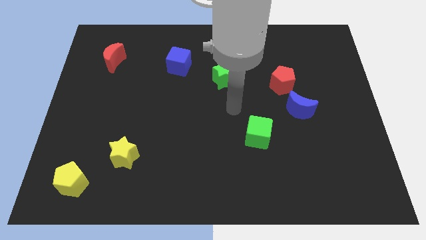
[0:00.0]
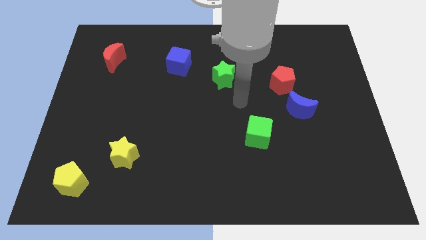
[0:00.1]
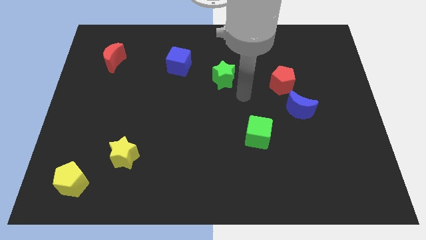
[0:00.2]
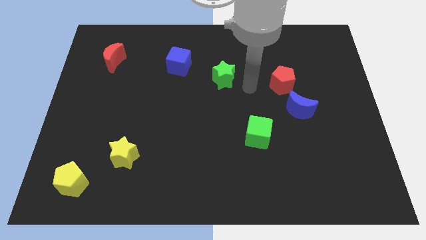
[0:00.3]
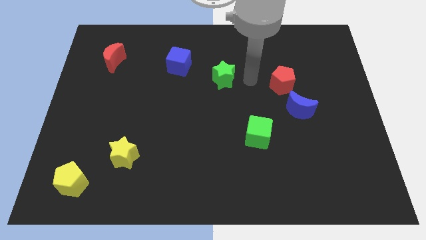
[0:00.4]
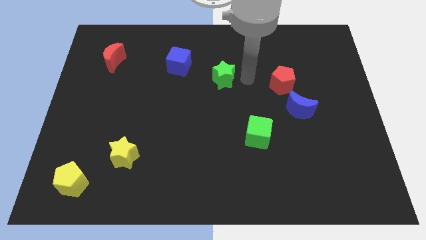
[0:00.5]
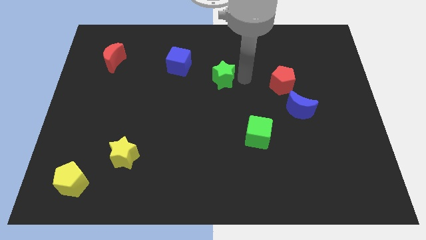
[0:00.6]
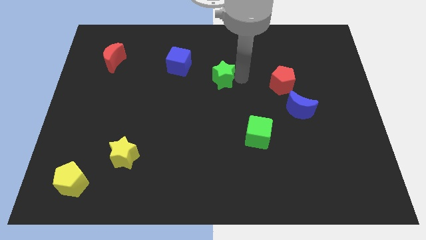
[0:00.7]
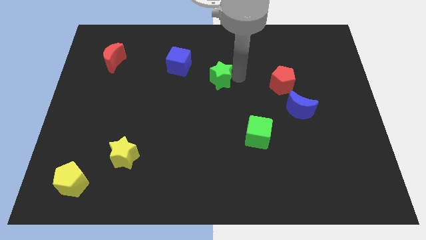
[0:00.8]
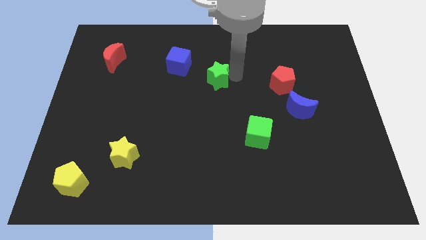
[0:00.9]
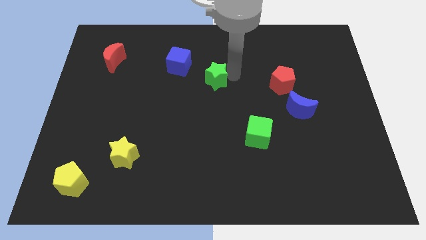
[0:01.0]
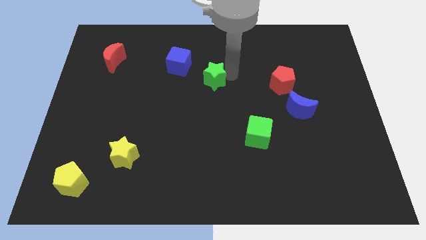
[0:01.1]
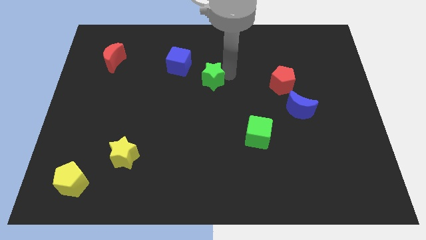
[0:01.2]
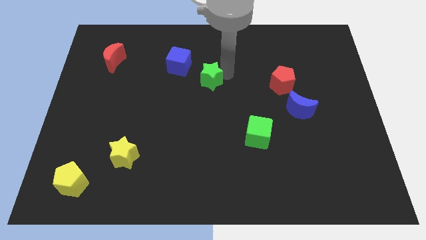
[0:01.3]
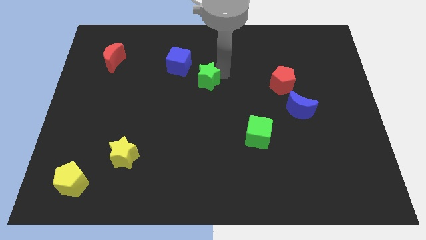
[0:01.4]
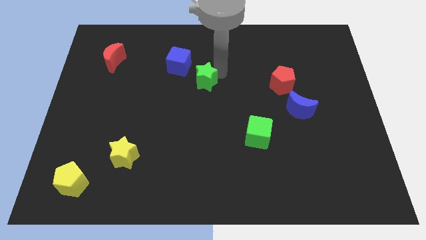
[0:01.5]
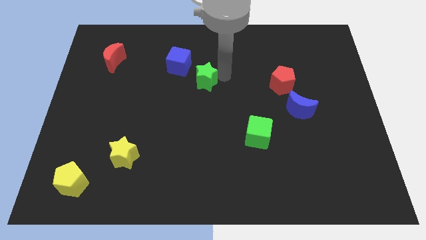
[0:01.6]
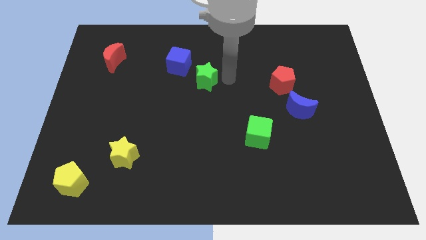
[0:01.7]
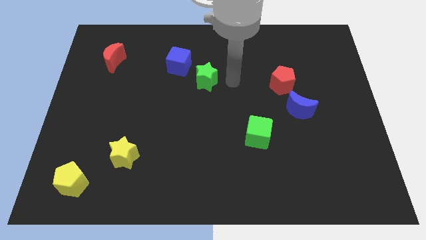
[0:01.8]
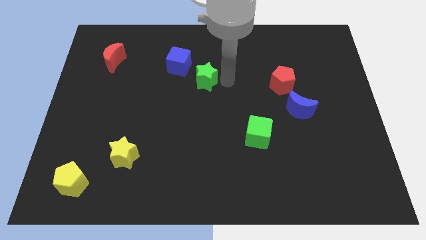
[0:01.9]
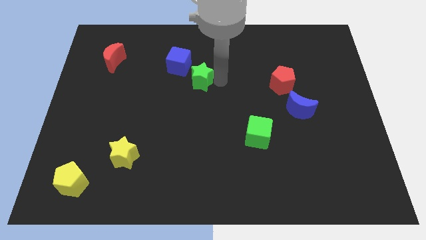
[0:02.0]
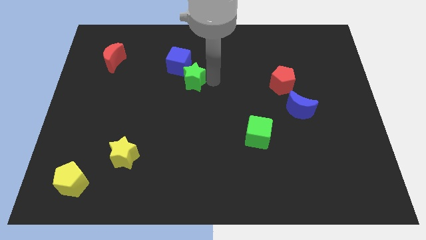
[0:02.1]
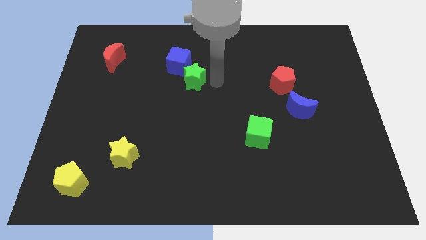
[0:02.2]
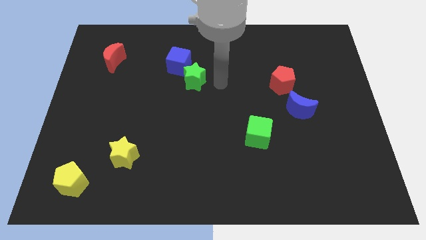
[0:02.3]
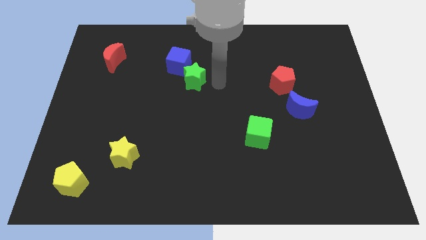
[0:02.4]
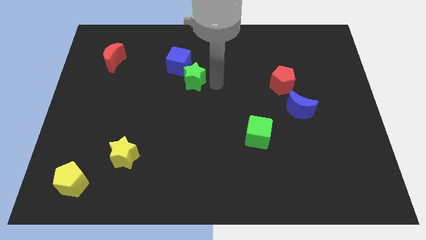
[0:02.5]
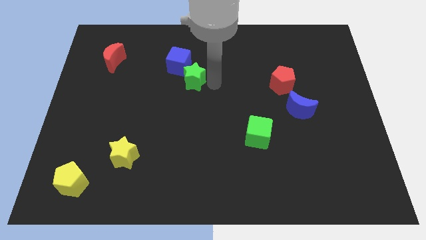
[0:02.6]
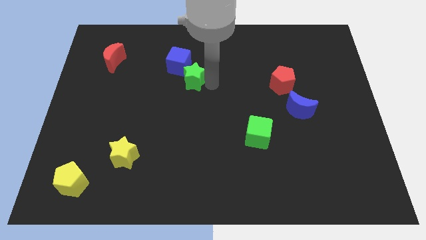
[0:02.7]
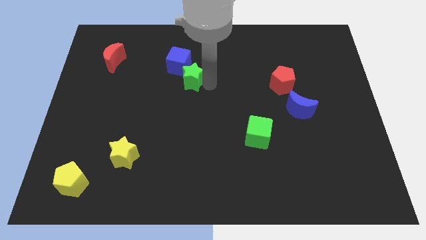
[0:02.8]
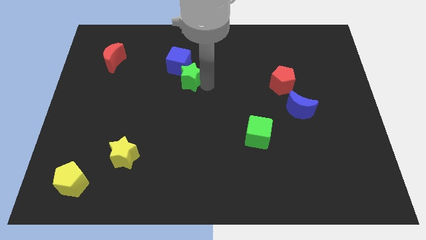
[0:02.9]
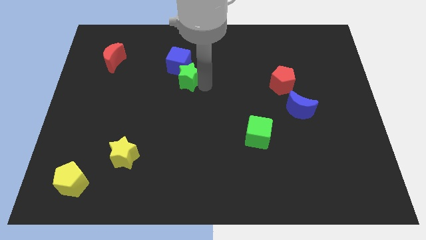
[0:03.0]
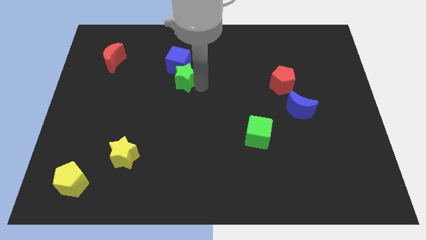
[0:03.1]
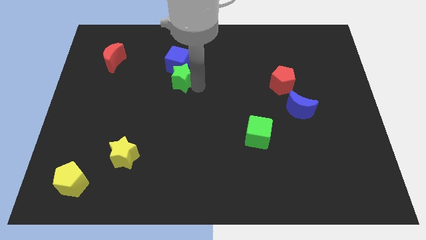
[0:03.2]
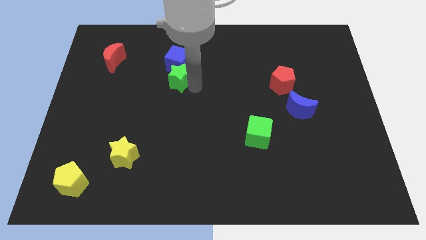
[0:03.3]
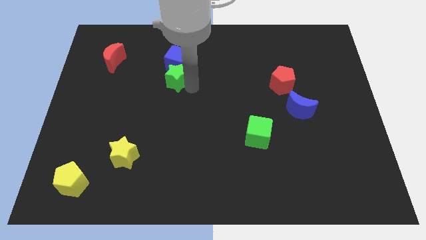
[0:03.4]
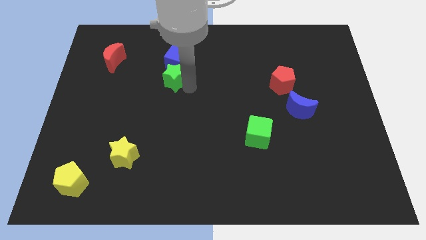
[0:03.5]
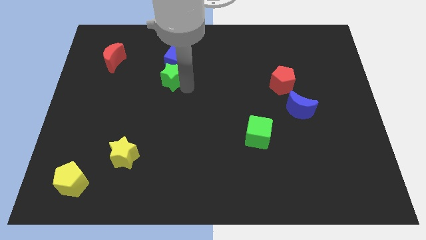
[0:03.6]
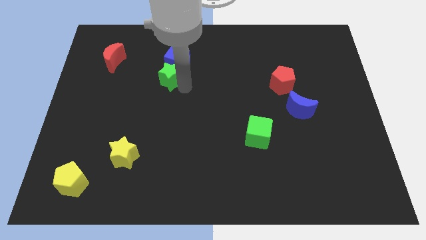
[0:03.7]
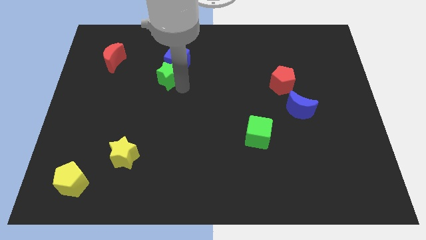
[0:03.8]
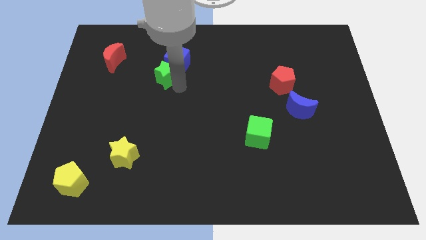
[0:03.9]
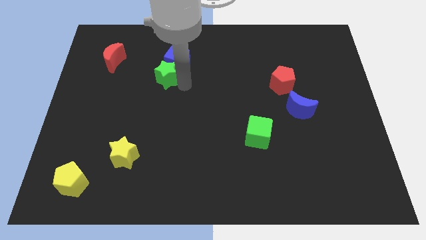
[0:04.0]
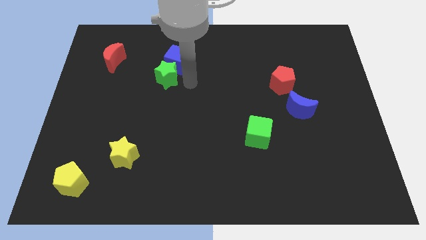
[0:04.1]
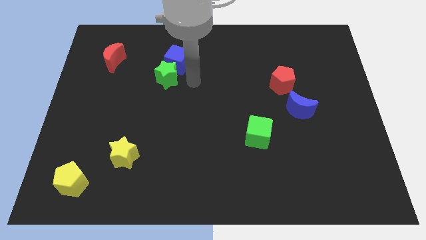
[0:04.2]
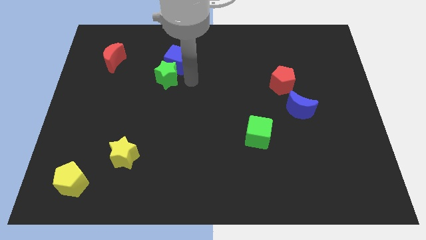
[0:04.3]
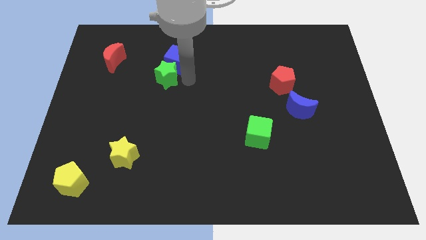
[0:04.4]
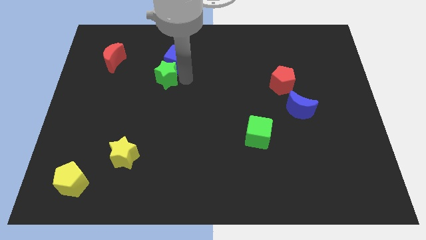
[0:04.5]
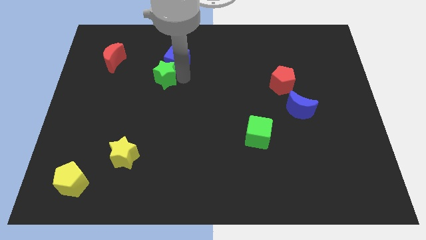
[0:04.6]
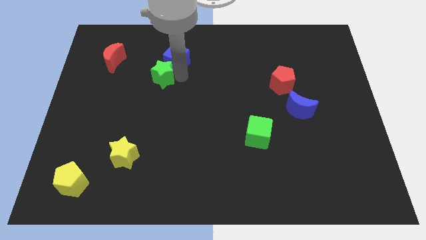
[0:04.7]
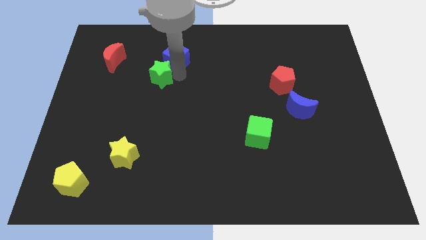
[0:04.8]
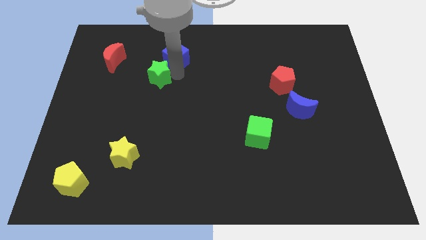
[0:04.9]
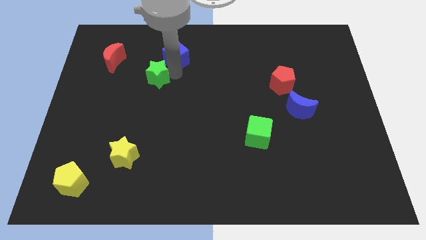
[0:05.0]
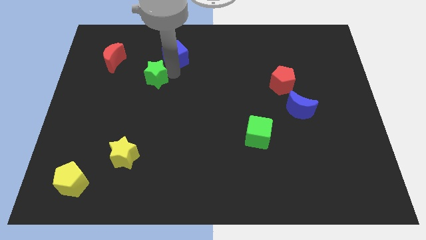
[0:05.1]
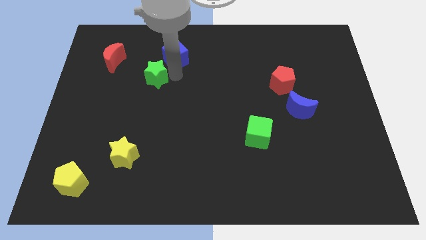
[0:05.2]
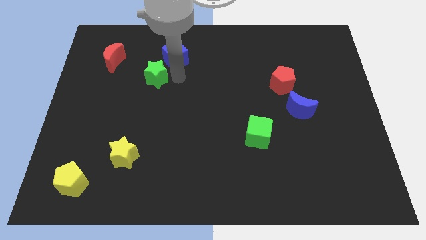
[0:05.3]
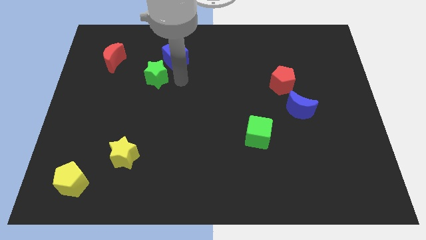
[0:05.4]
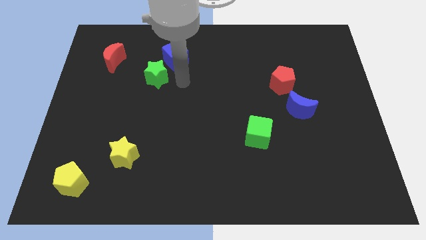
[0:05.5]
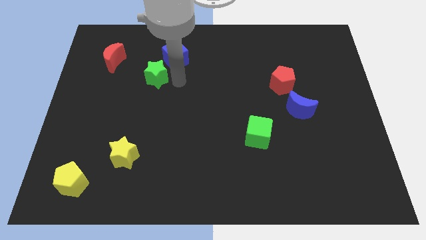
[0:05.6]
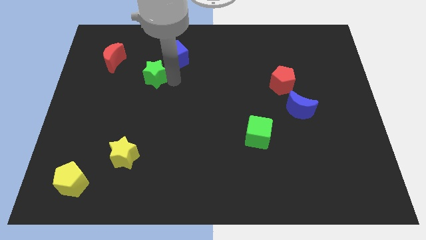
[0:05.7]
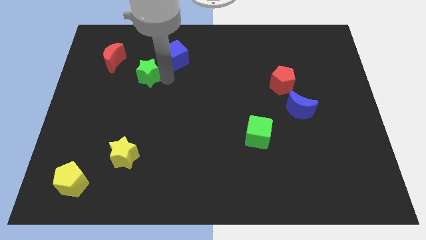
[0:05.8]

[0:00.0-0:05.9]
move the green star to the bottom right side of the red moon

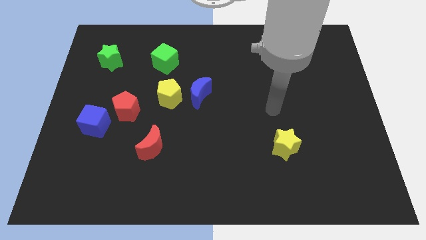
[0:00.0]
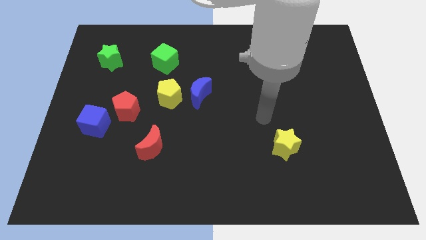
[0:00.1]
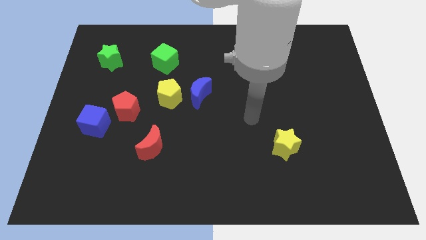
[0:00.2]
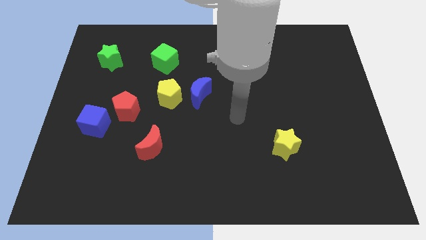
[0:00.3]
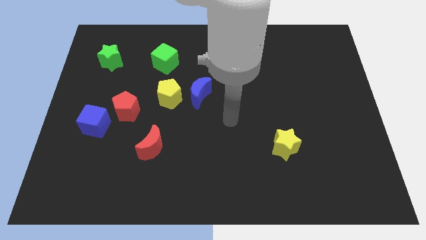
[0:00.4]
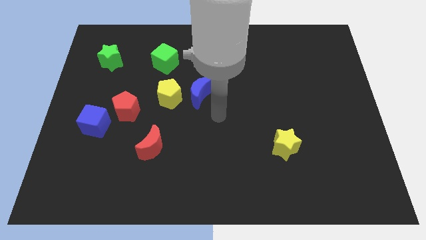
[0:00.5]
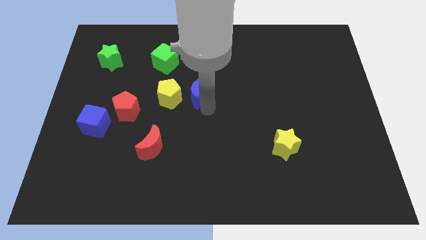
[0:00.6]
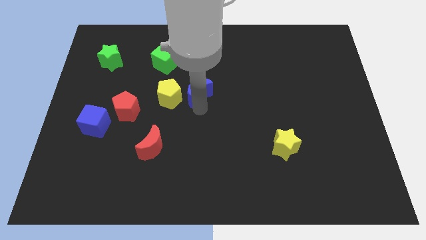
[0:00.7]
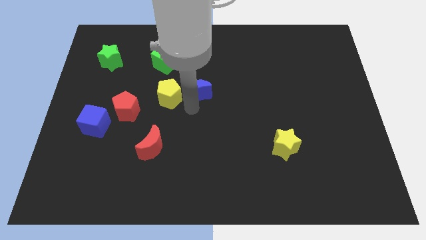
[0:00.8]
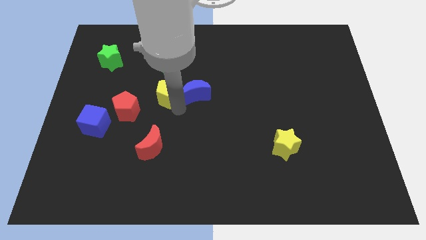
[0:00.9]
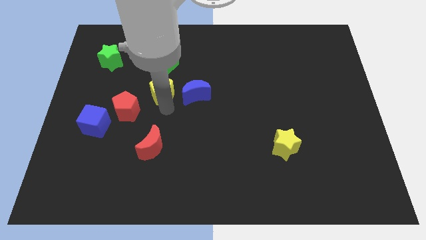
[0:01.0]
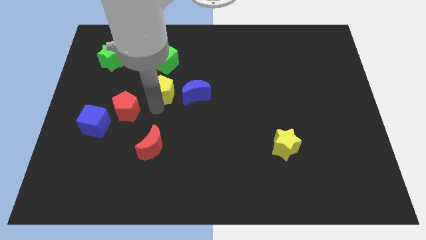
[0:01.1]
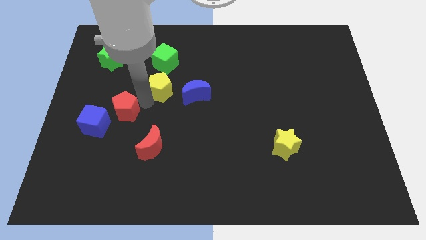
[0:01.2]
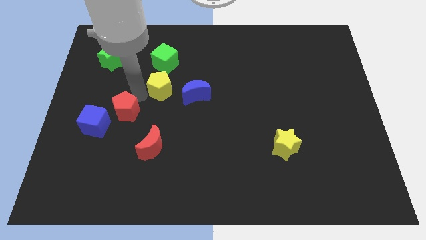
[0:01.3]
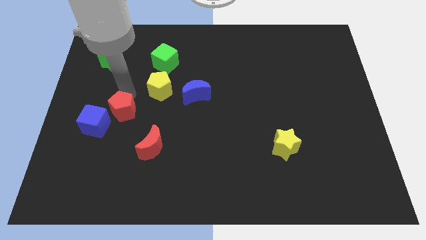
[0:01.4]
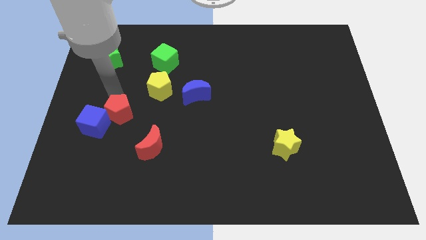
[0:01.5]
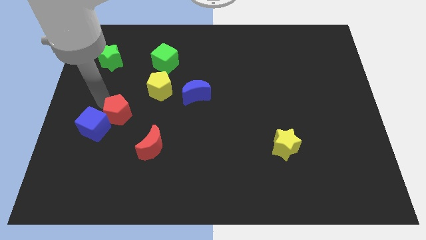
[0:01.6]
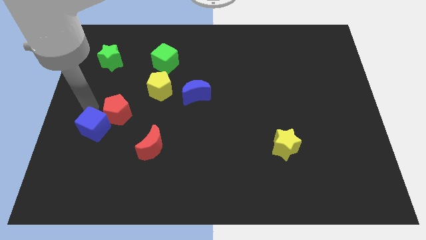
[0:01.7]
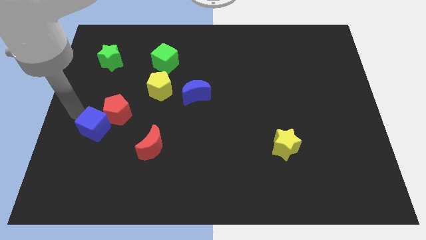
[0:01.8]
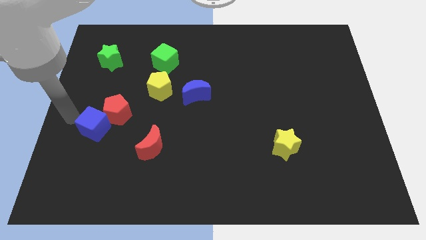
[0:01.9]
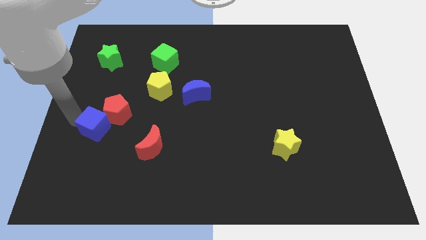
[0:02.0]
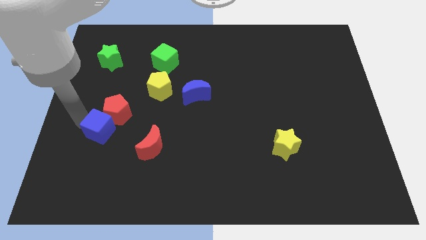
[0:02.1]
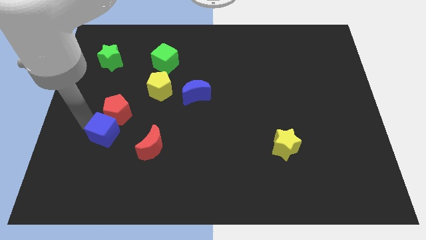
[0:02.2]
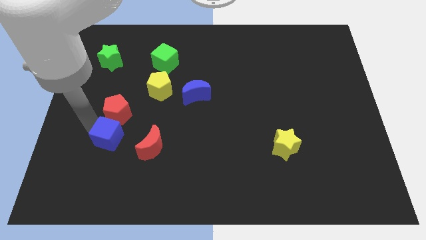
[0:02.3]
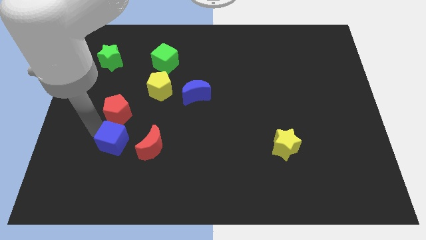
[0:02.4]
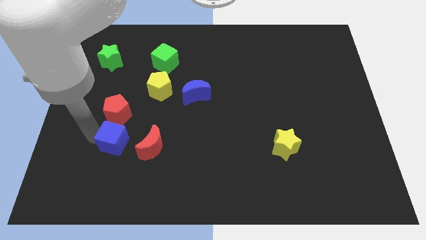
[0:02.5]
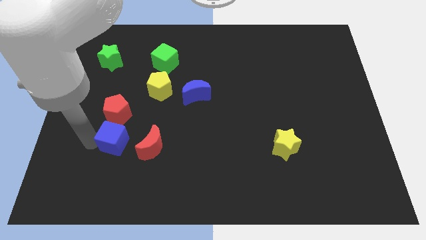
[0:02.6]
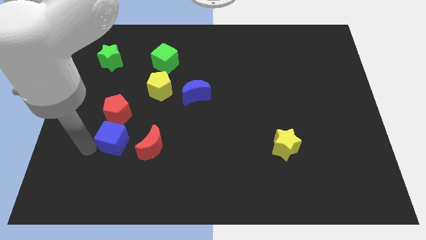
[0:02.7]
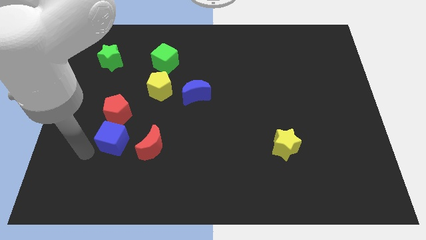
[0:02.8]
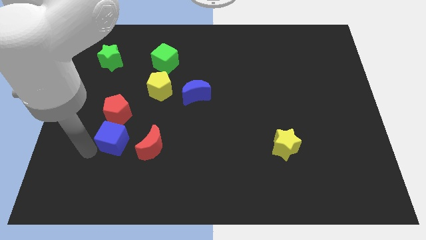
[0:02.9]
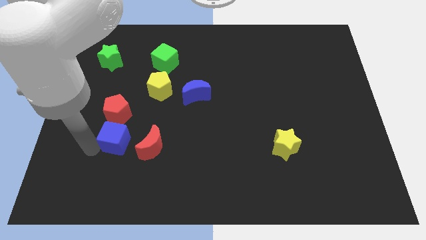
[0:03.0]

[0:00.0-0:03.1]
put the blue cube diagonally down and to the right of the red pentagon
